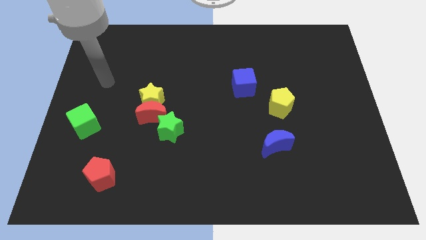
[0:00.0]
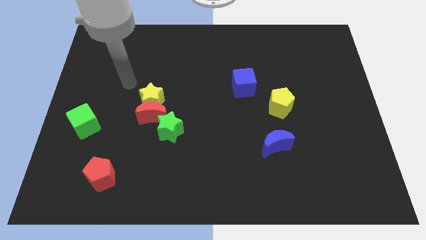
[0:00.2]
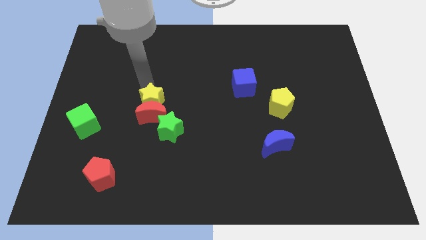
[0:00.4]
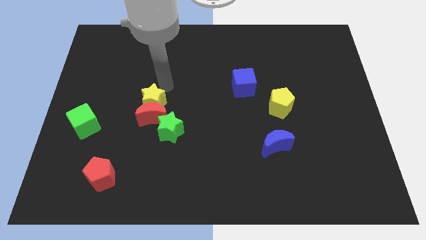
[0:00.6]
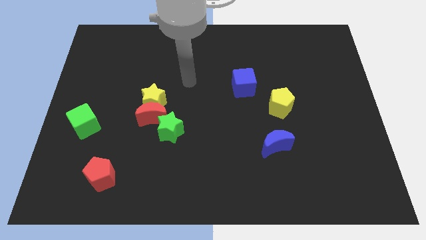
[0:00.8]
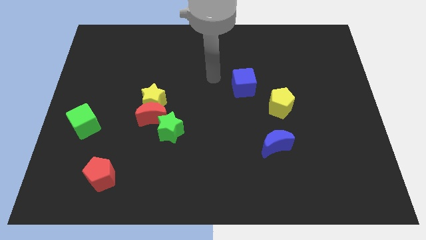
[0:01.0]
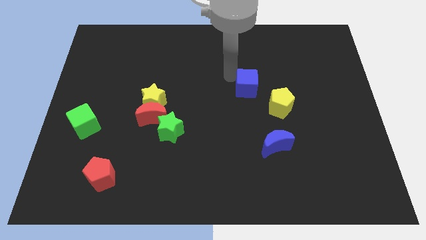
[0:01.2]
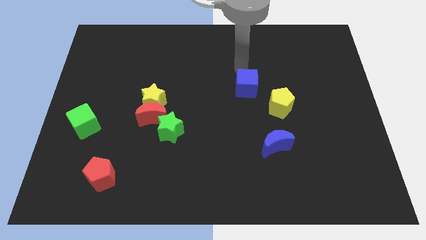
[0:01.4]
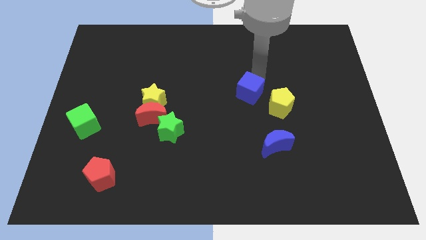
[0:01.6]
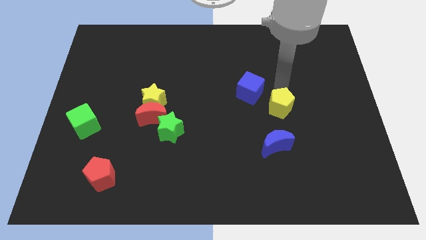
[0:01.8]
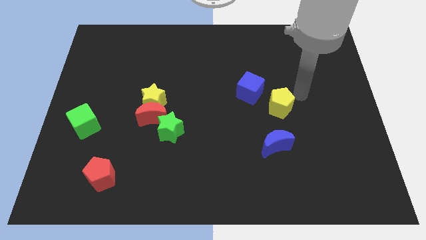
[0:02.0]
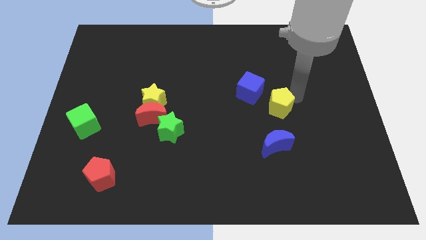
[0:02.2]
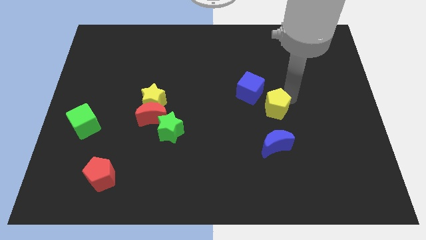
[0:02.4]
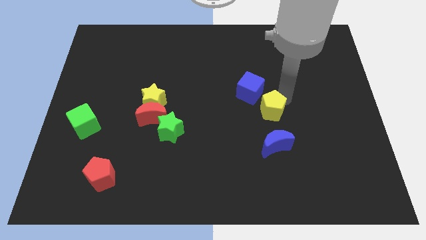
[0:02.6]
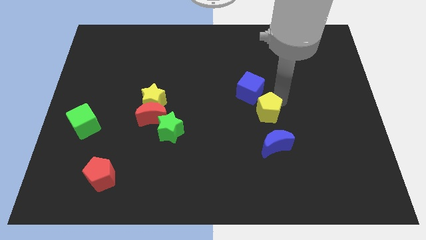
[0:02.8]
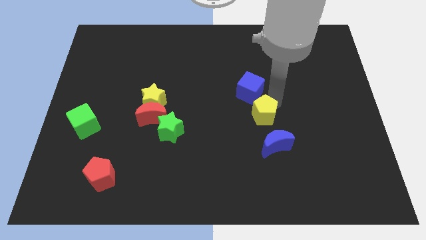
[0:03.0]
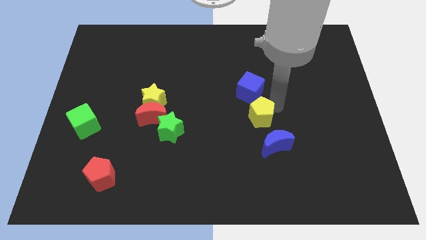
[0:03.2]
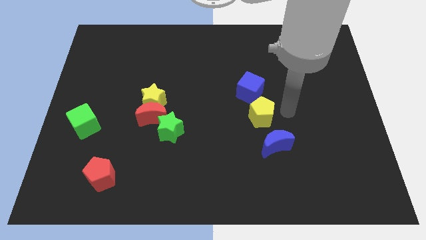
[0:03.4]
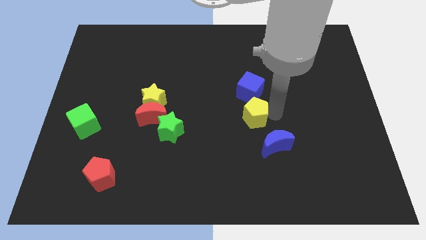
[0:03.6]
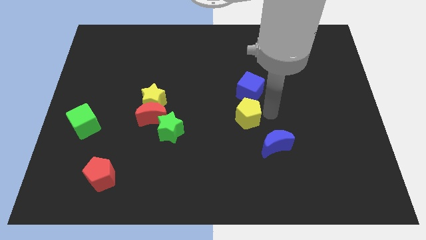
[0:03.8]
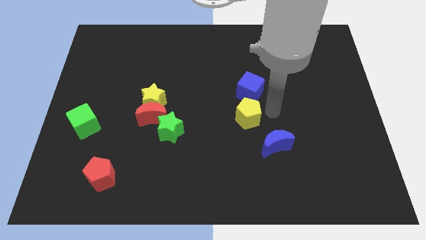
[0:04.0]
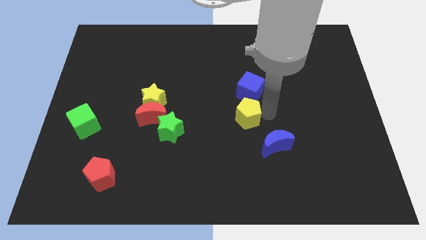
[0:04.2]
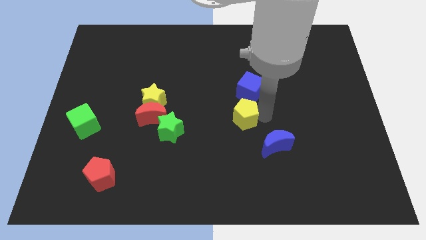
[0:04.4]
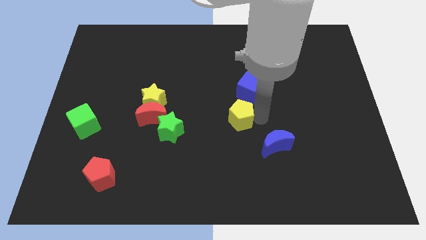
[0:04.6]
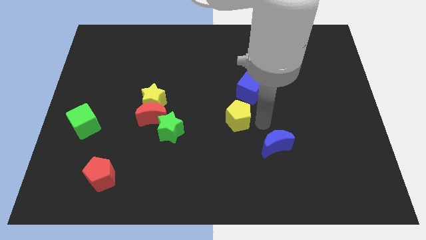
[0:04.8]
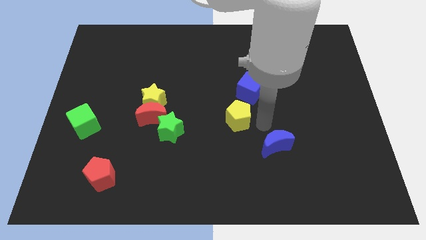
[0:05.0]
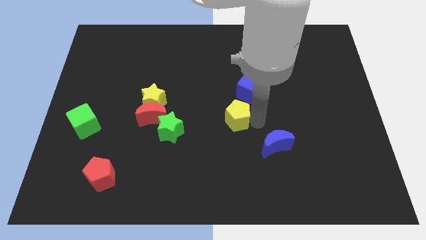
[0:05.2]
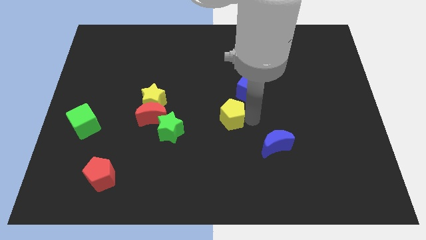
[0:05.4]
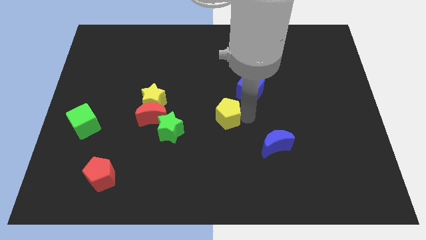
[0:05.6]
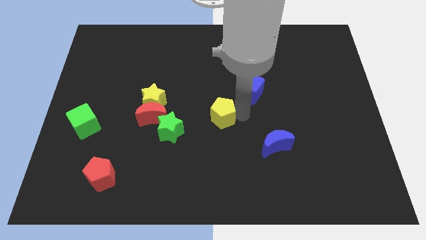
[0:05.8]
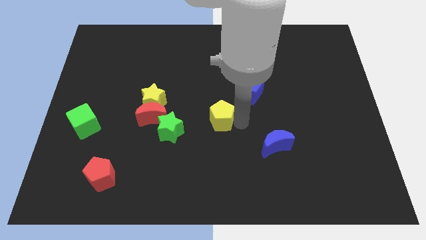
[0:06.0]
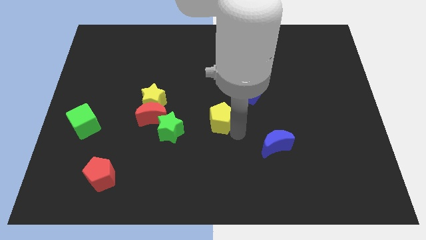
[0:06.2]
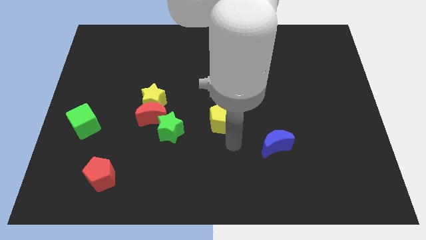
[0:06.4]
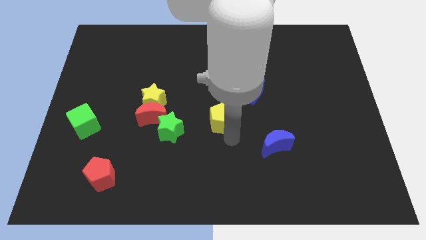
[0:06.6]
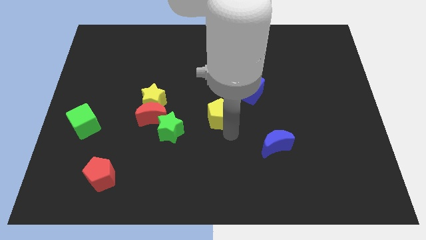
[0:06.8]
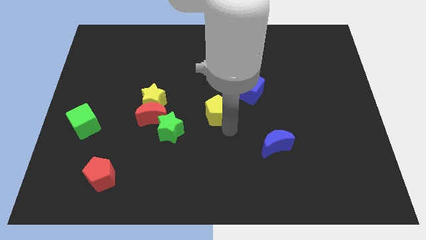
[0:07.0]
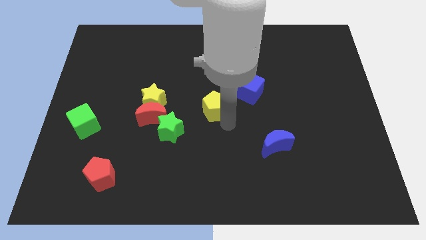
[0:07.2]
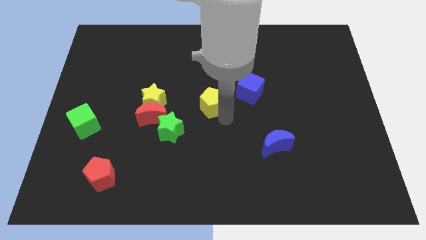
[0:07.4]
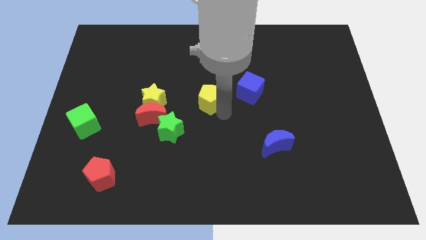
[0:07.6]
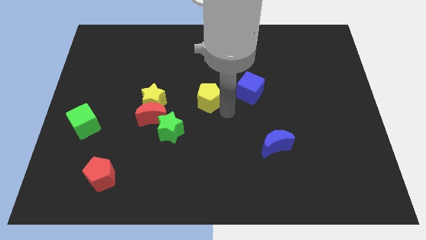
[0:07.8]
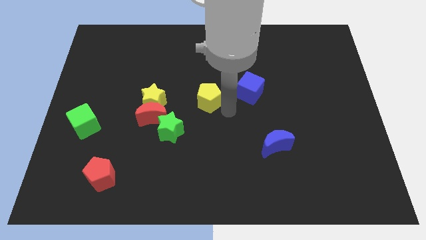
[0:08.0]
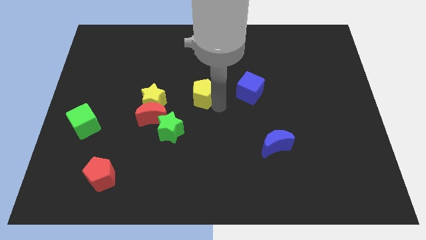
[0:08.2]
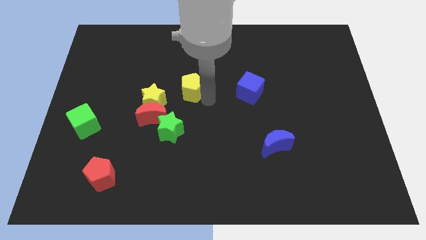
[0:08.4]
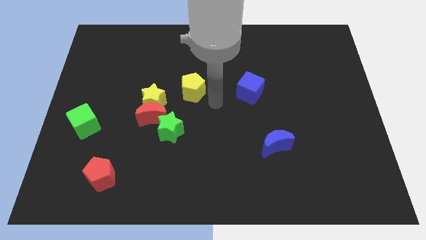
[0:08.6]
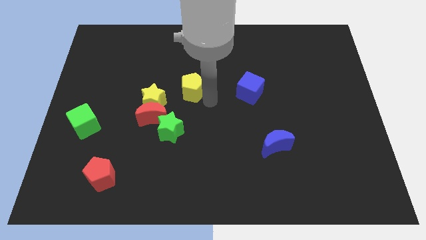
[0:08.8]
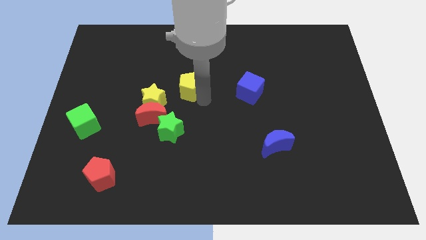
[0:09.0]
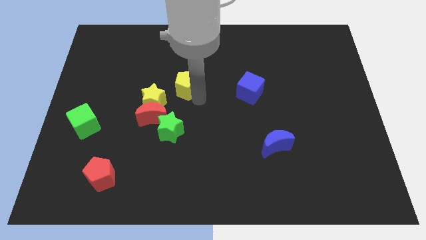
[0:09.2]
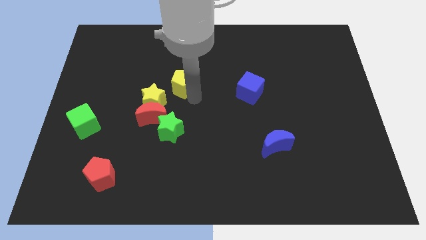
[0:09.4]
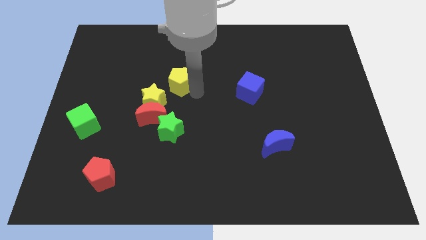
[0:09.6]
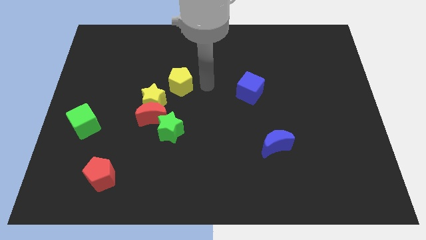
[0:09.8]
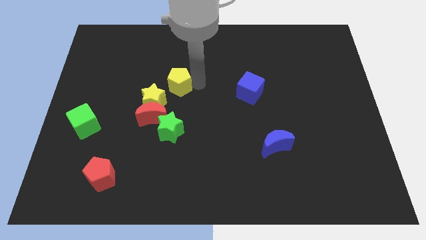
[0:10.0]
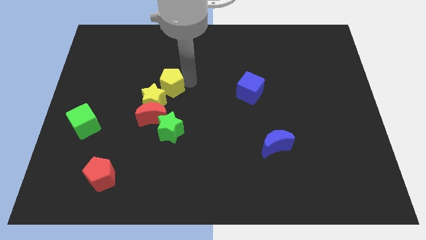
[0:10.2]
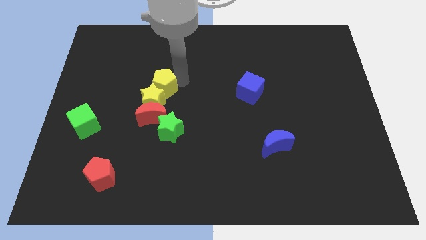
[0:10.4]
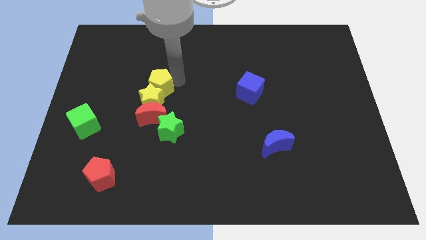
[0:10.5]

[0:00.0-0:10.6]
put the yellow pentagon to the top left side of the yellow star

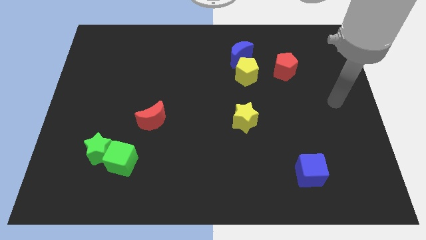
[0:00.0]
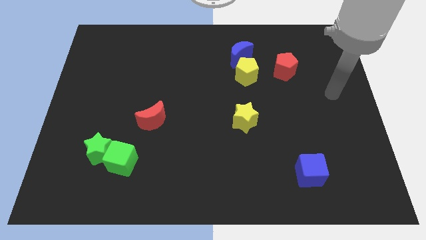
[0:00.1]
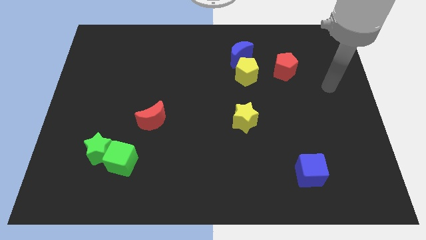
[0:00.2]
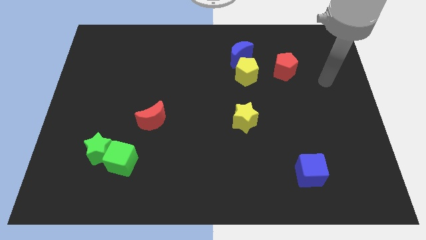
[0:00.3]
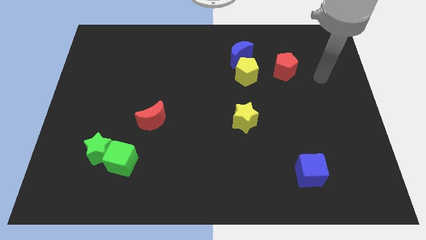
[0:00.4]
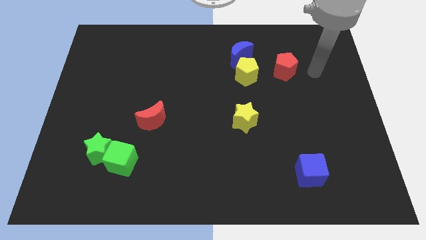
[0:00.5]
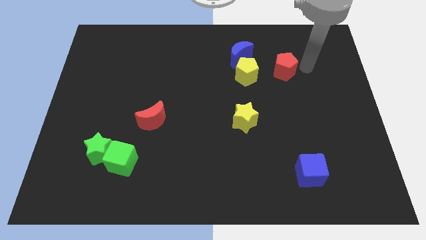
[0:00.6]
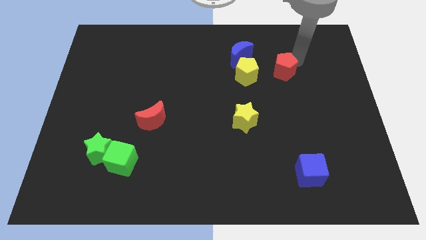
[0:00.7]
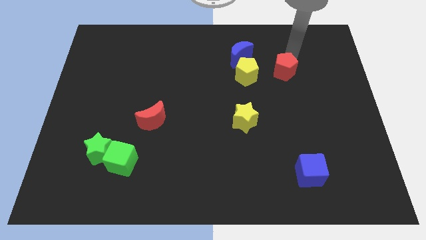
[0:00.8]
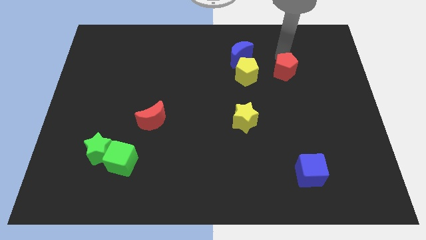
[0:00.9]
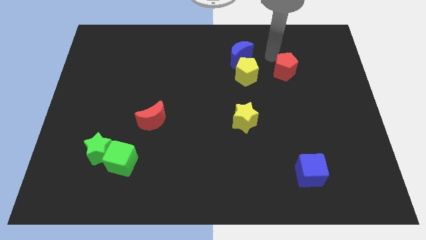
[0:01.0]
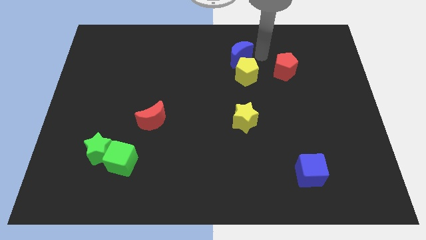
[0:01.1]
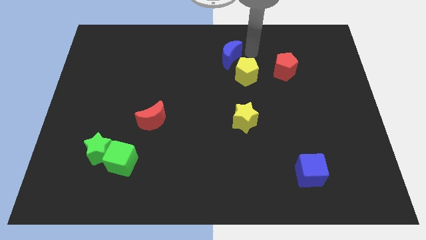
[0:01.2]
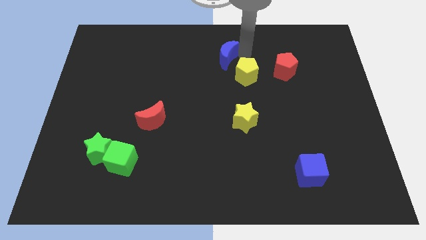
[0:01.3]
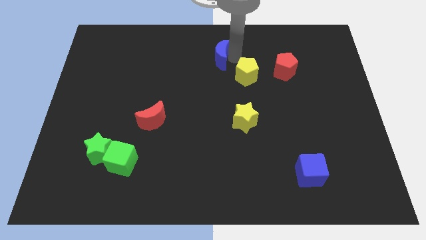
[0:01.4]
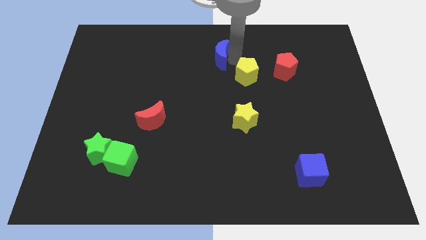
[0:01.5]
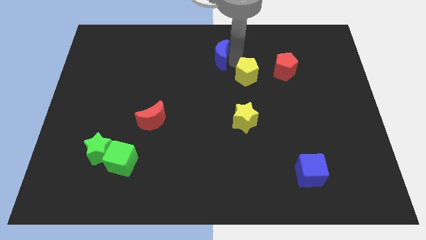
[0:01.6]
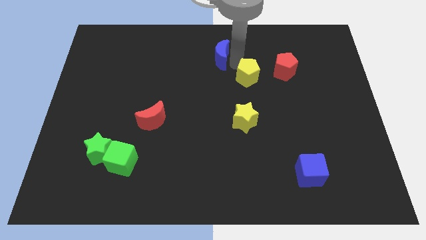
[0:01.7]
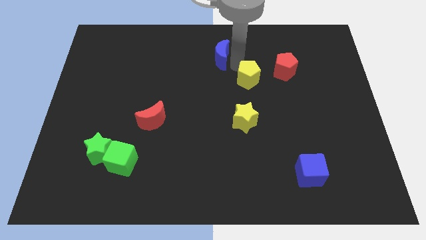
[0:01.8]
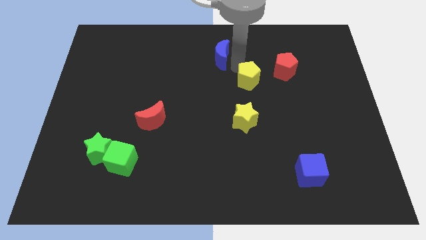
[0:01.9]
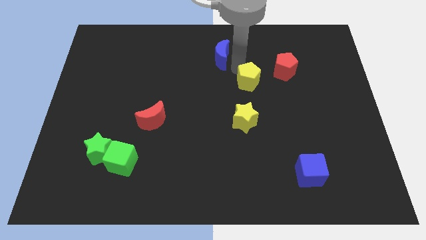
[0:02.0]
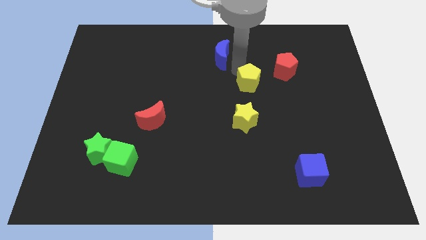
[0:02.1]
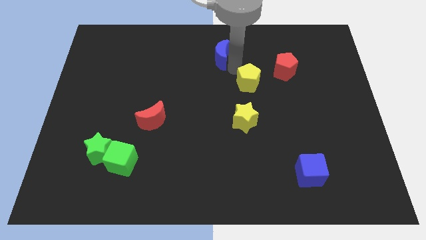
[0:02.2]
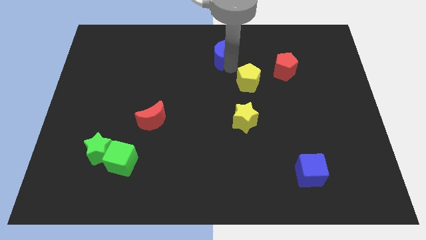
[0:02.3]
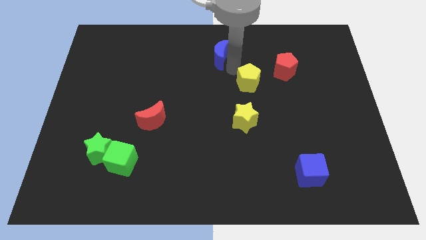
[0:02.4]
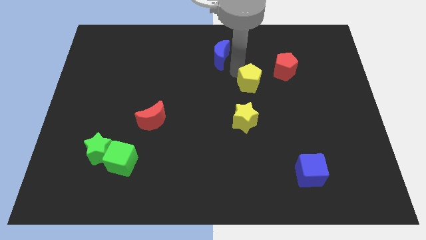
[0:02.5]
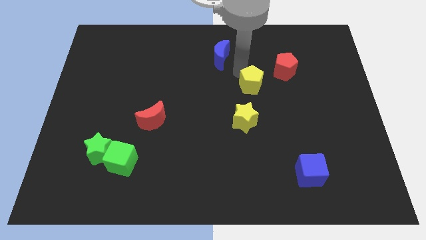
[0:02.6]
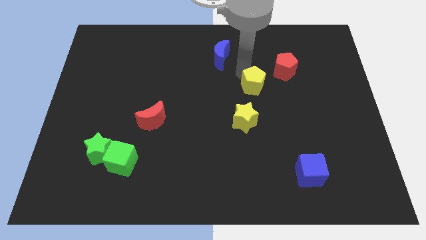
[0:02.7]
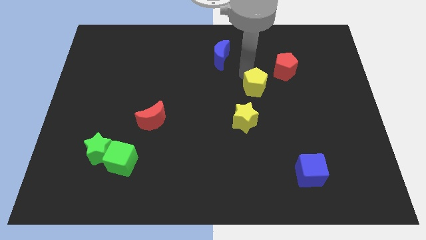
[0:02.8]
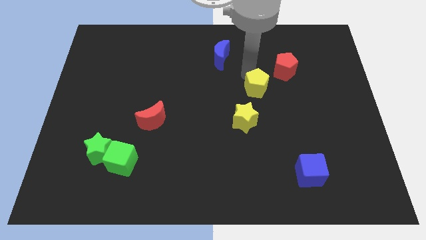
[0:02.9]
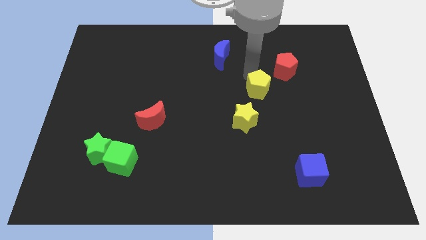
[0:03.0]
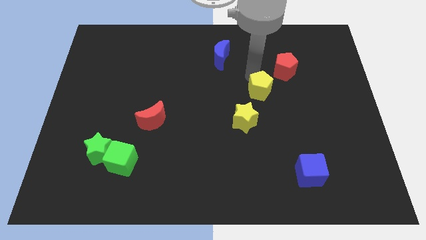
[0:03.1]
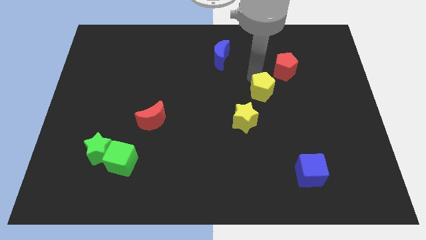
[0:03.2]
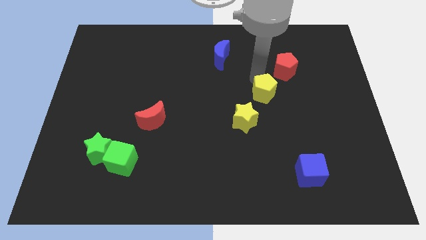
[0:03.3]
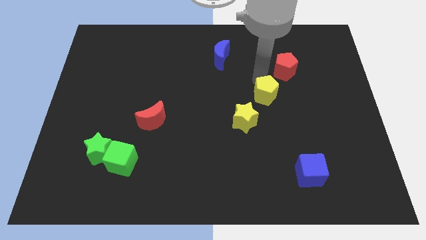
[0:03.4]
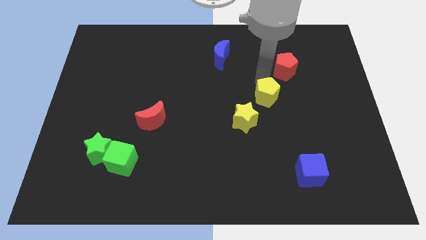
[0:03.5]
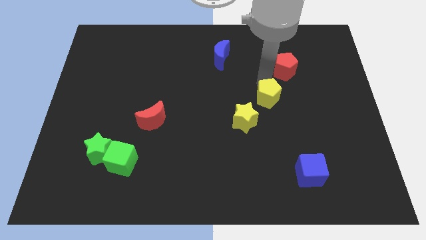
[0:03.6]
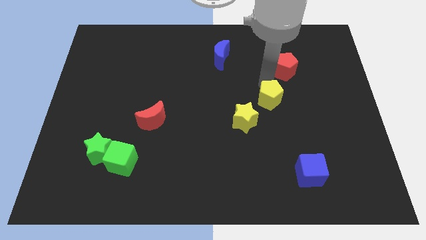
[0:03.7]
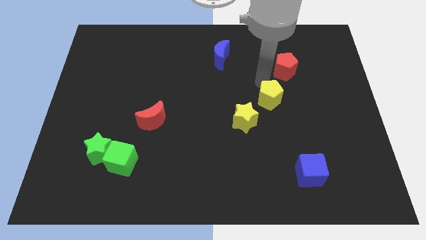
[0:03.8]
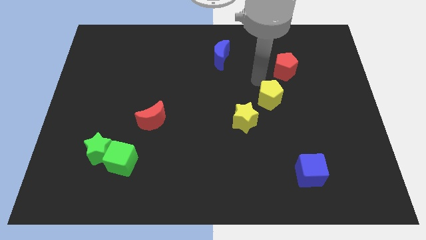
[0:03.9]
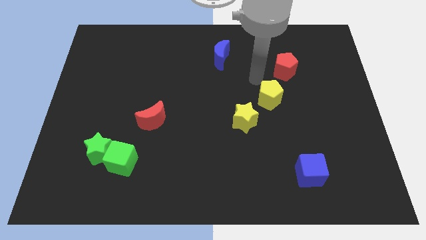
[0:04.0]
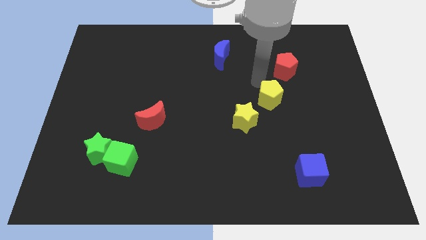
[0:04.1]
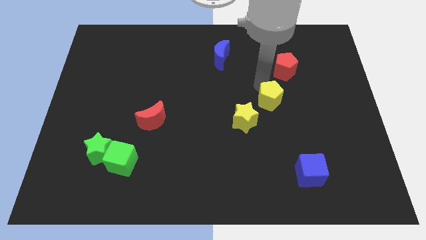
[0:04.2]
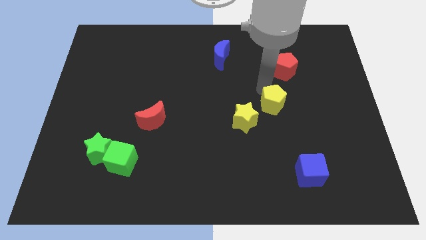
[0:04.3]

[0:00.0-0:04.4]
push the yellow pentagon right of the yellow star
